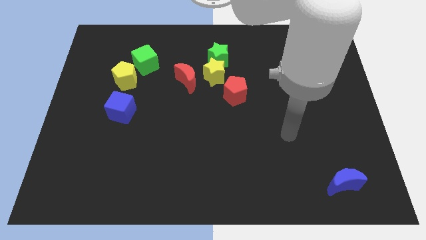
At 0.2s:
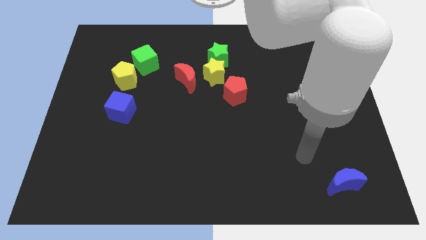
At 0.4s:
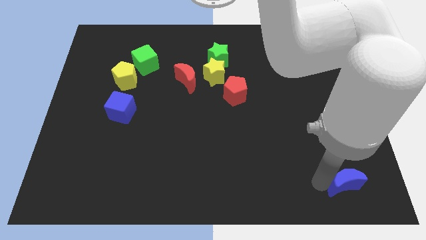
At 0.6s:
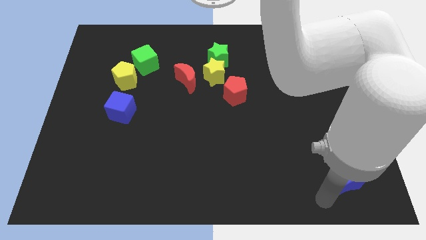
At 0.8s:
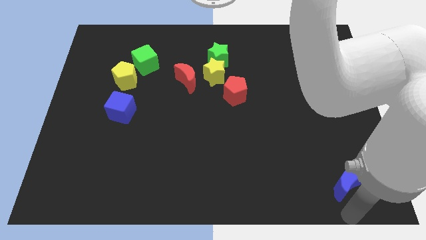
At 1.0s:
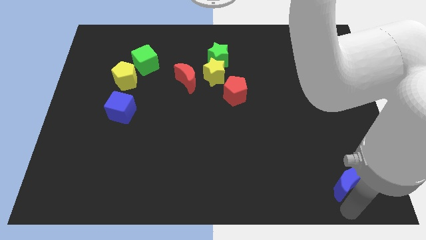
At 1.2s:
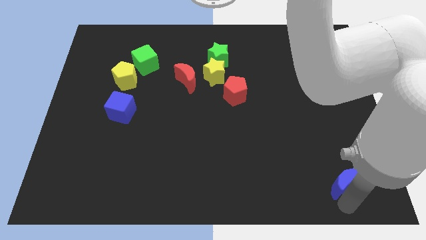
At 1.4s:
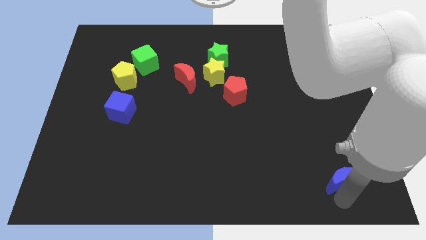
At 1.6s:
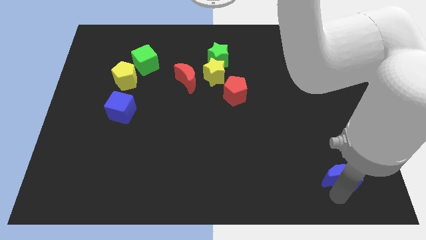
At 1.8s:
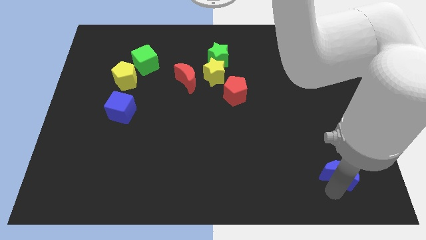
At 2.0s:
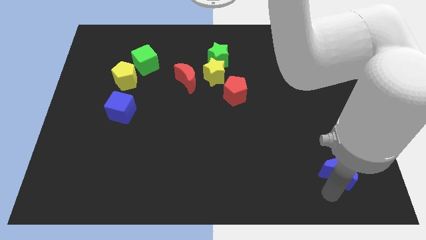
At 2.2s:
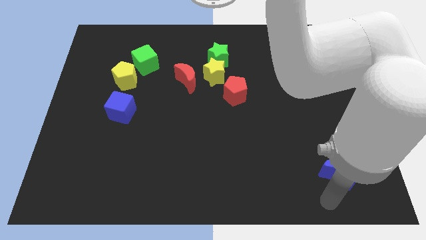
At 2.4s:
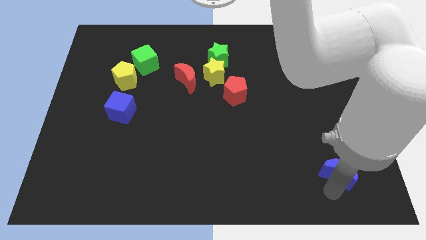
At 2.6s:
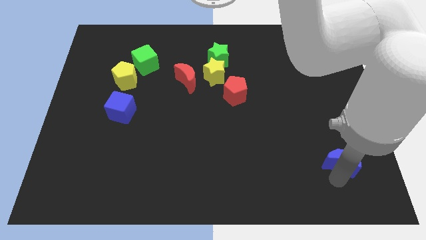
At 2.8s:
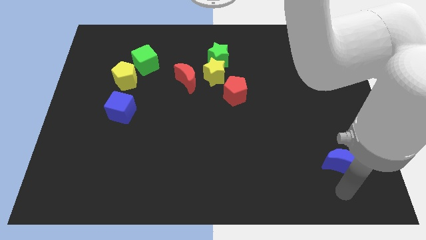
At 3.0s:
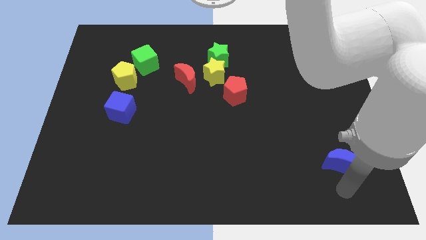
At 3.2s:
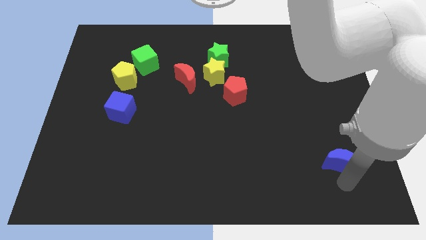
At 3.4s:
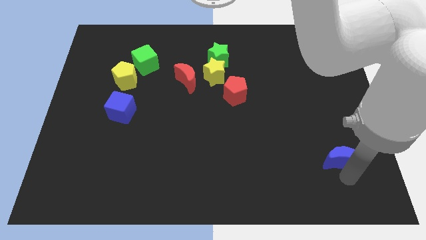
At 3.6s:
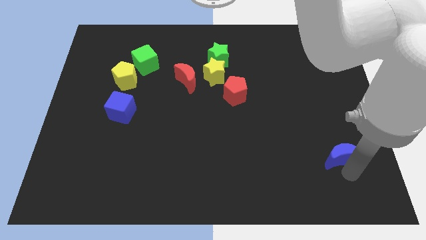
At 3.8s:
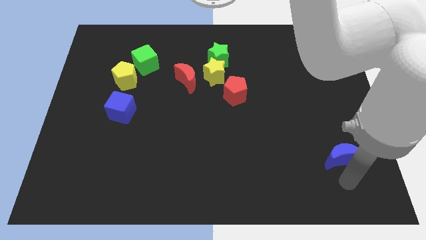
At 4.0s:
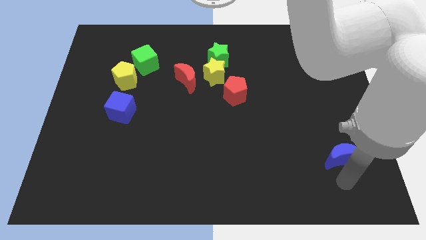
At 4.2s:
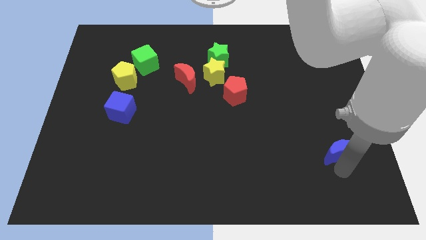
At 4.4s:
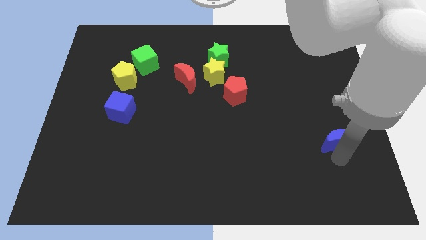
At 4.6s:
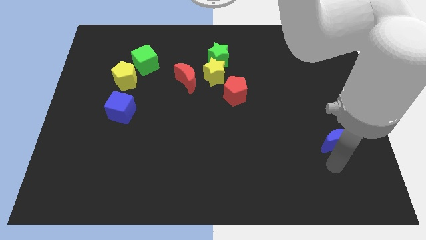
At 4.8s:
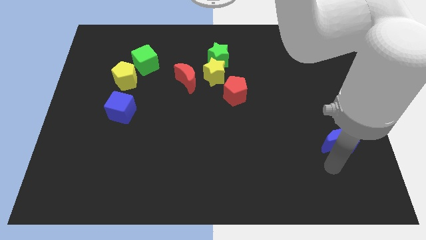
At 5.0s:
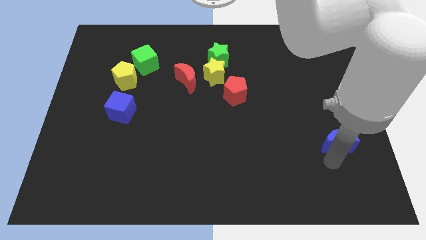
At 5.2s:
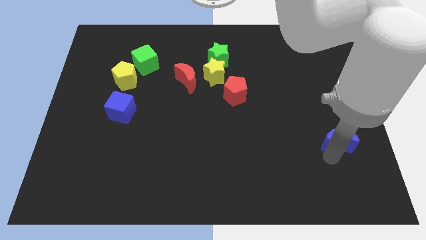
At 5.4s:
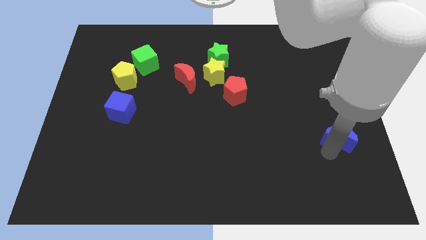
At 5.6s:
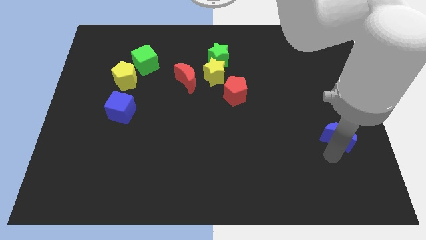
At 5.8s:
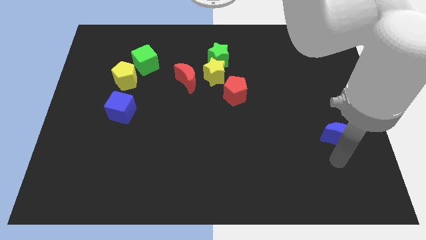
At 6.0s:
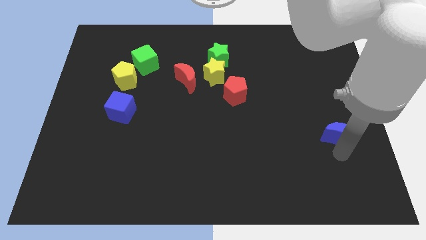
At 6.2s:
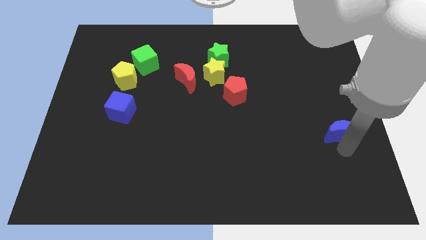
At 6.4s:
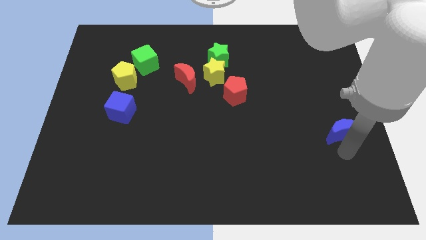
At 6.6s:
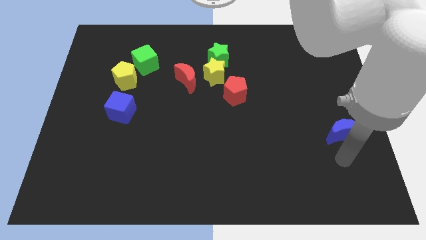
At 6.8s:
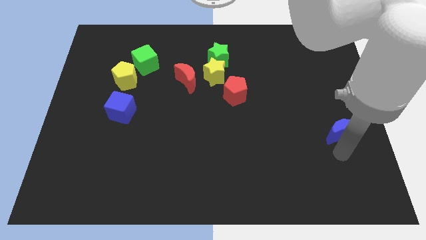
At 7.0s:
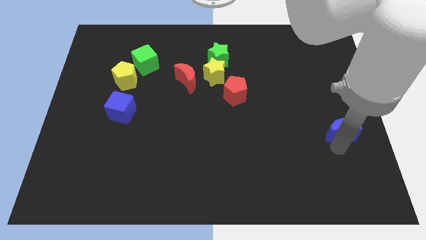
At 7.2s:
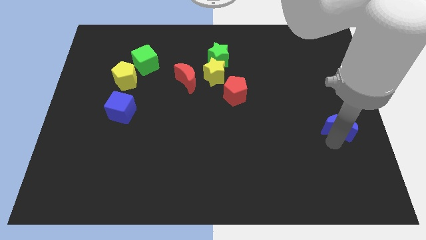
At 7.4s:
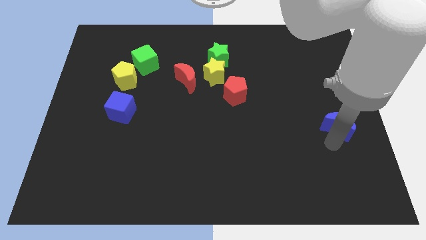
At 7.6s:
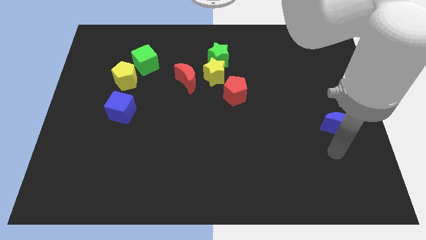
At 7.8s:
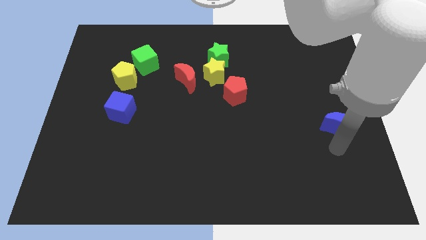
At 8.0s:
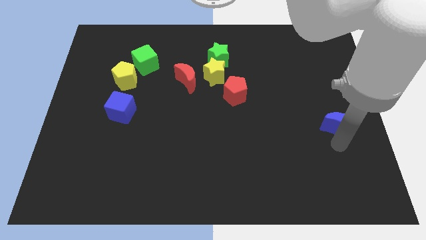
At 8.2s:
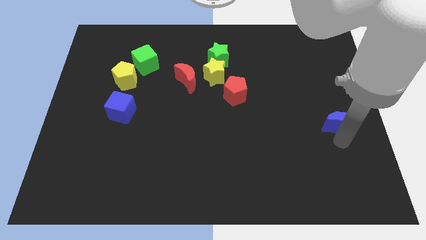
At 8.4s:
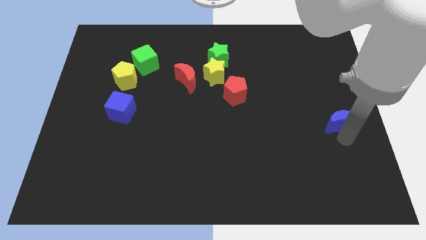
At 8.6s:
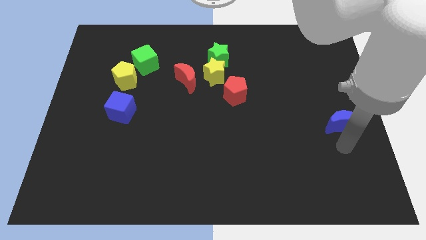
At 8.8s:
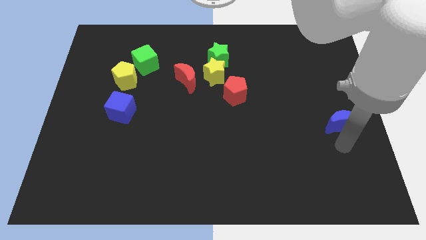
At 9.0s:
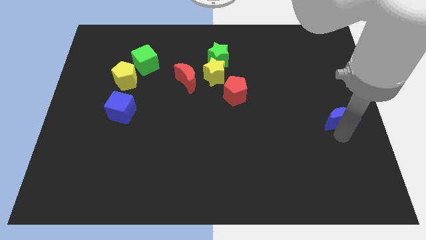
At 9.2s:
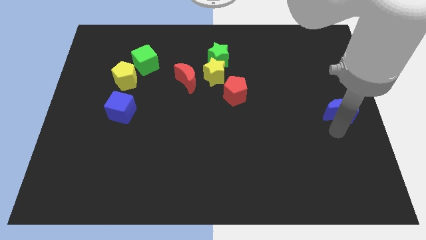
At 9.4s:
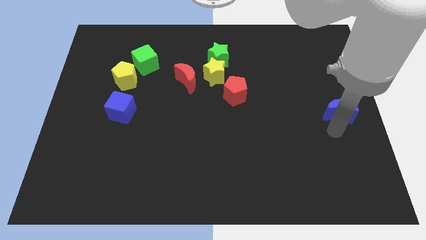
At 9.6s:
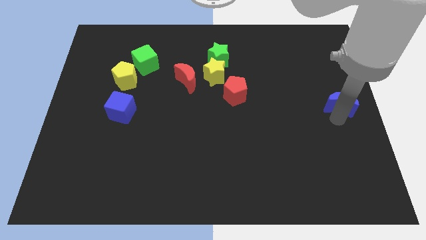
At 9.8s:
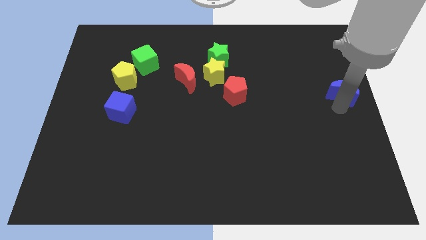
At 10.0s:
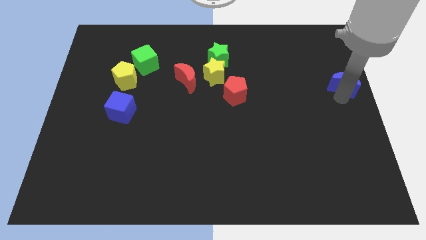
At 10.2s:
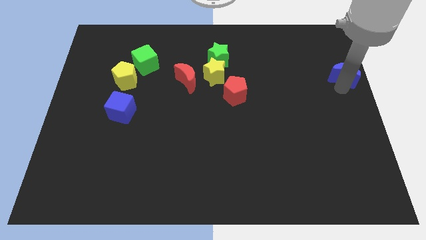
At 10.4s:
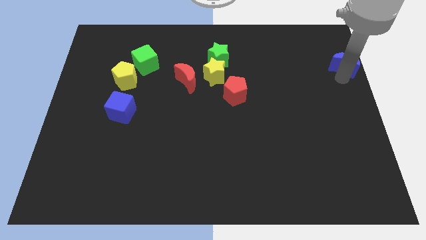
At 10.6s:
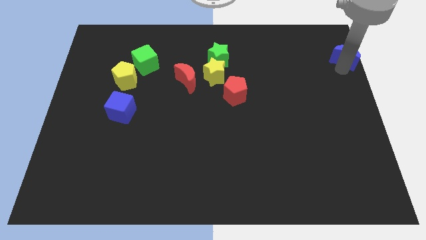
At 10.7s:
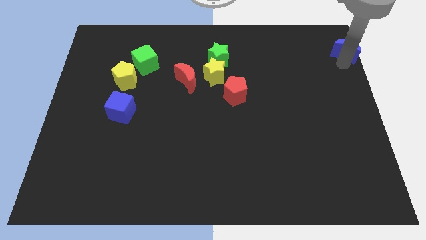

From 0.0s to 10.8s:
put the blue moon to the upper right corner

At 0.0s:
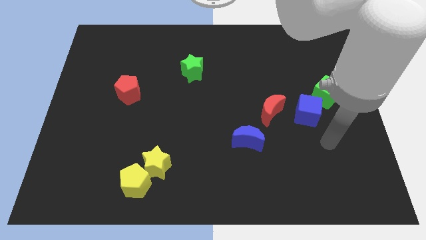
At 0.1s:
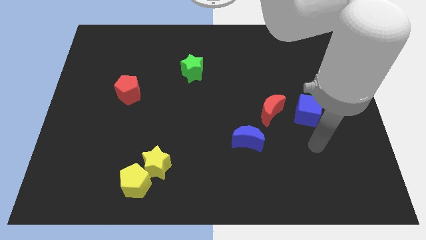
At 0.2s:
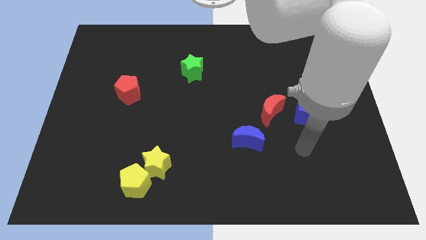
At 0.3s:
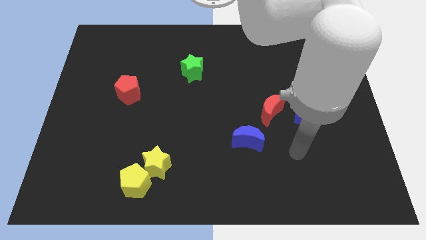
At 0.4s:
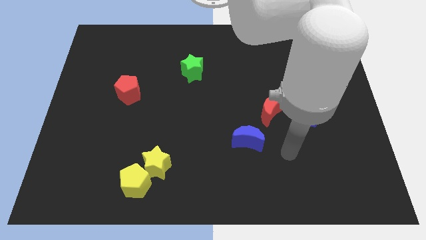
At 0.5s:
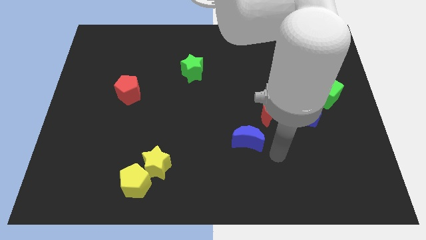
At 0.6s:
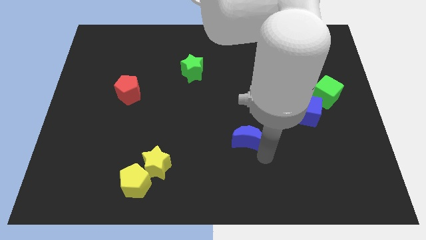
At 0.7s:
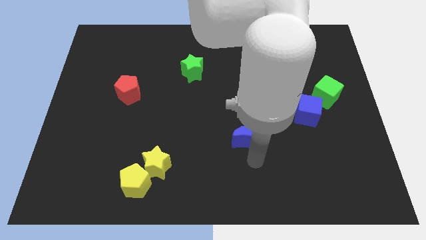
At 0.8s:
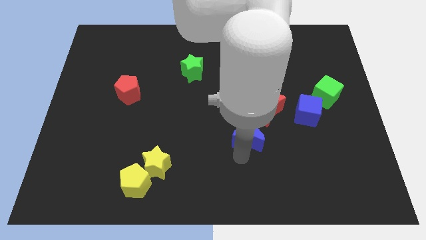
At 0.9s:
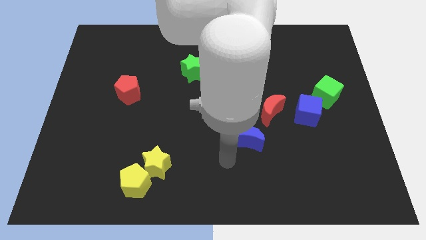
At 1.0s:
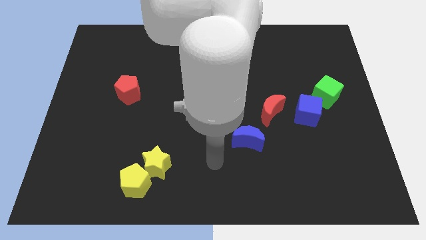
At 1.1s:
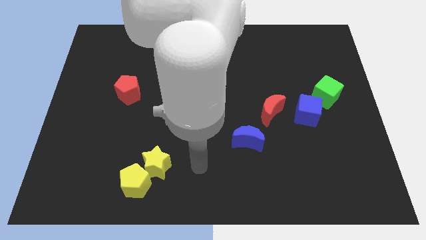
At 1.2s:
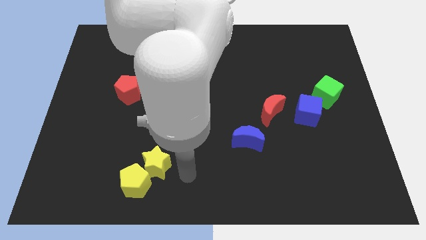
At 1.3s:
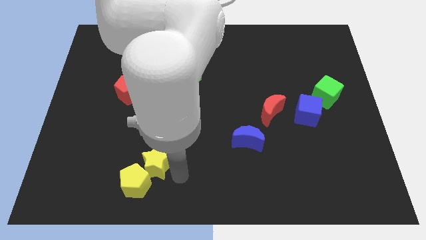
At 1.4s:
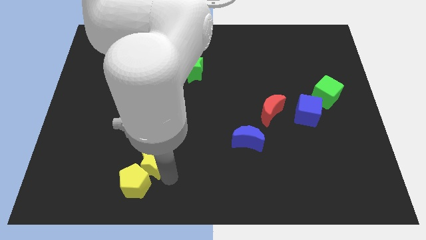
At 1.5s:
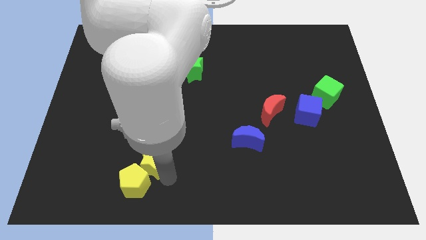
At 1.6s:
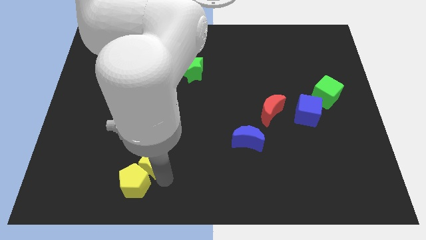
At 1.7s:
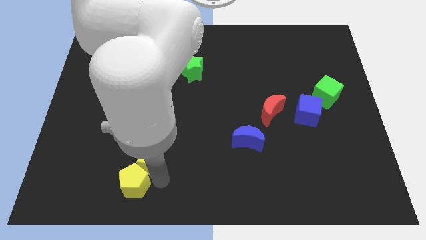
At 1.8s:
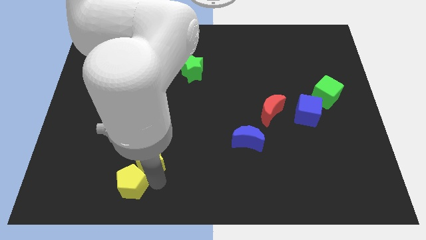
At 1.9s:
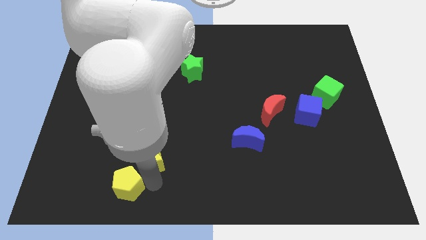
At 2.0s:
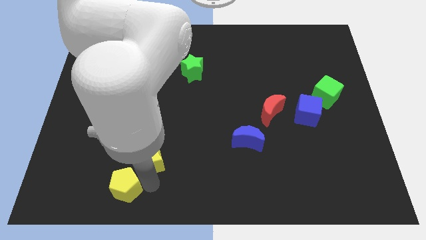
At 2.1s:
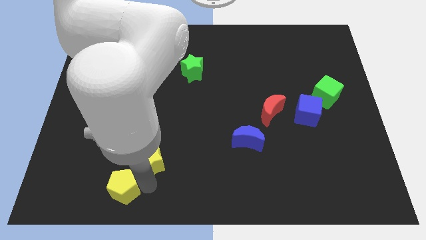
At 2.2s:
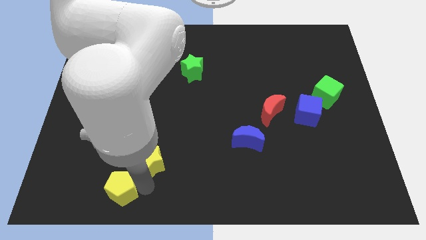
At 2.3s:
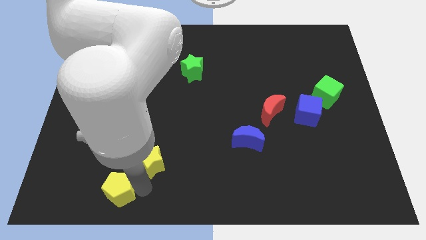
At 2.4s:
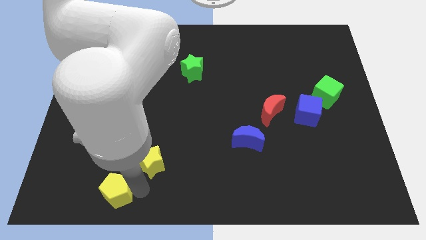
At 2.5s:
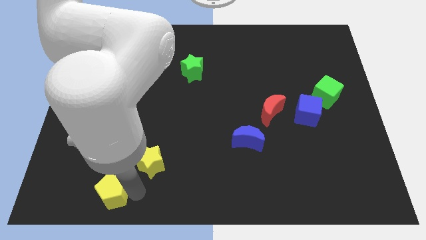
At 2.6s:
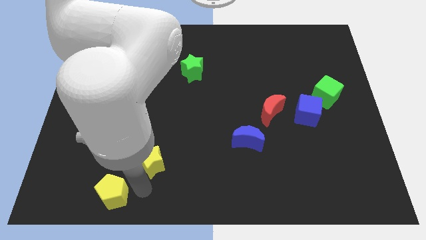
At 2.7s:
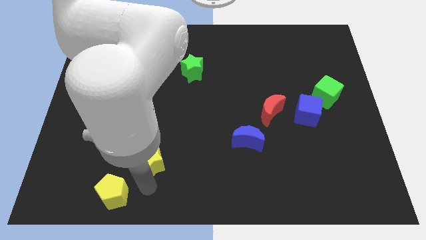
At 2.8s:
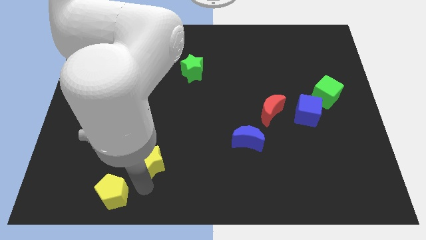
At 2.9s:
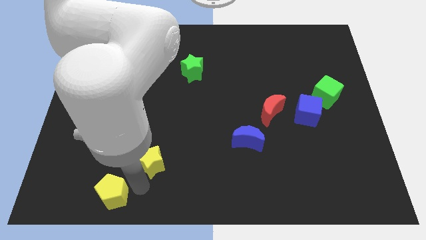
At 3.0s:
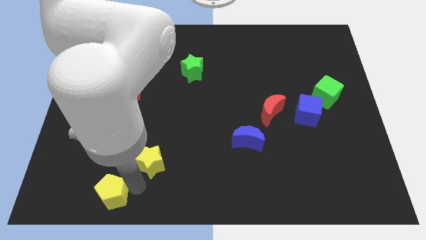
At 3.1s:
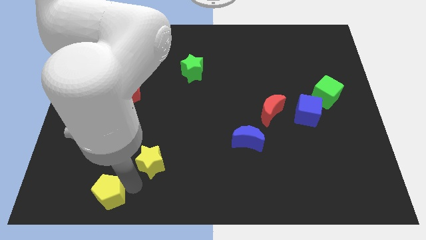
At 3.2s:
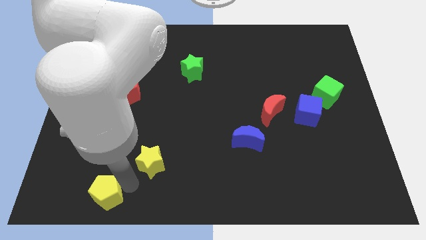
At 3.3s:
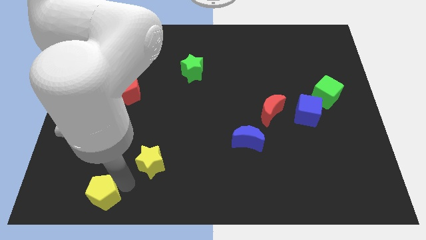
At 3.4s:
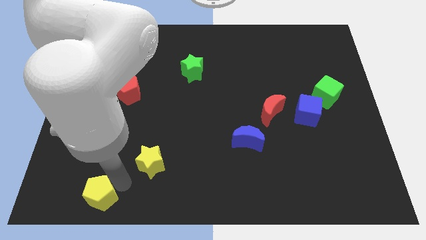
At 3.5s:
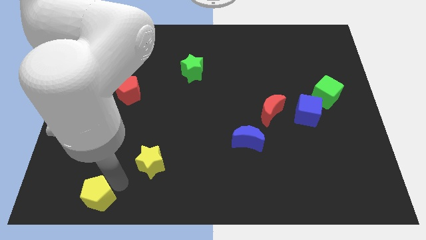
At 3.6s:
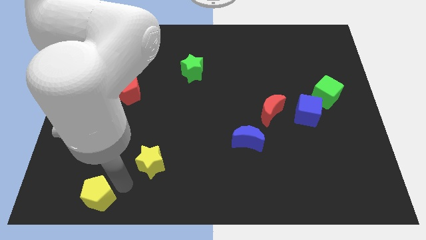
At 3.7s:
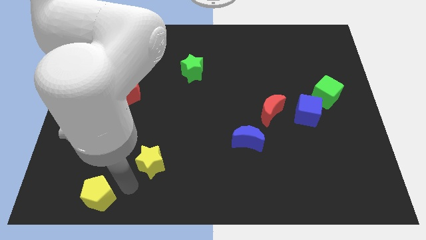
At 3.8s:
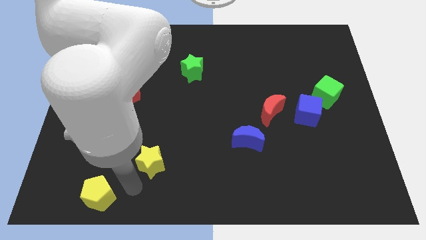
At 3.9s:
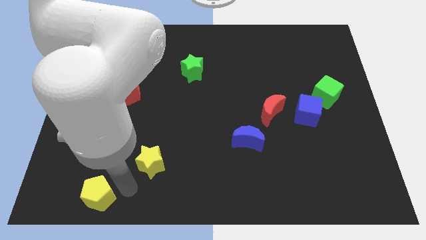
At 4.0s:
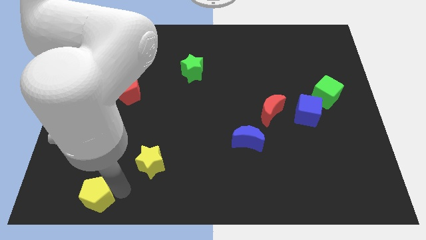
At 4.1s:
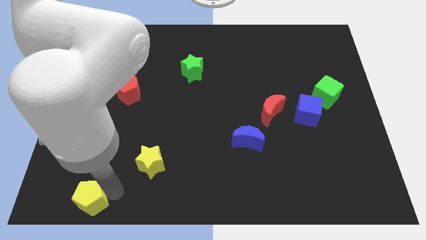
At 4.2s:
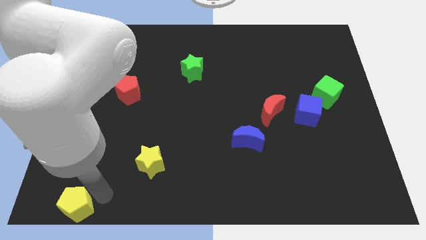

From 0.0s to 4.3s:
slide the yellow pentagon to the lower left corner
